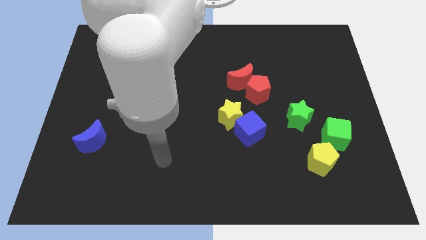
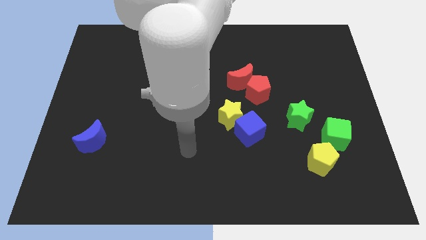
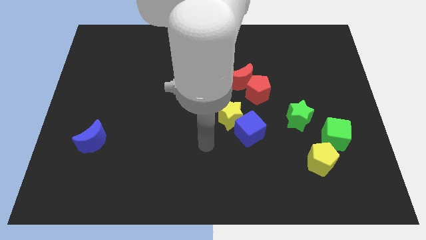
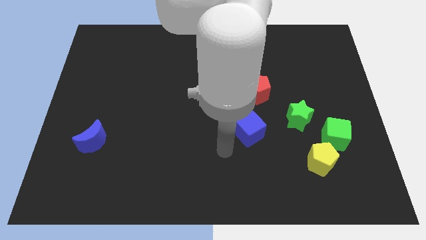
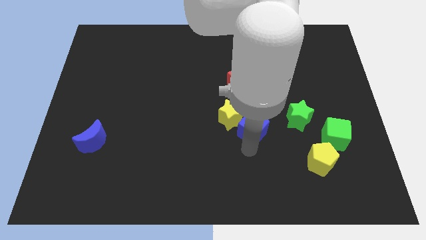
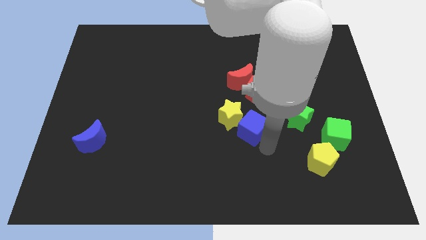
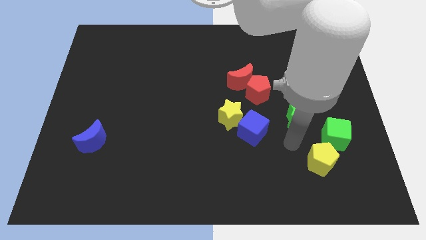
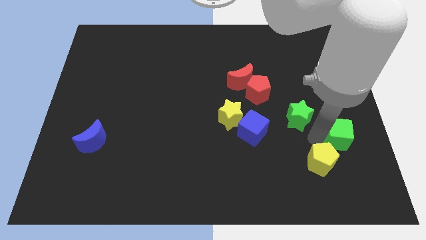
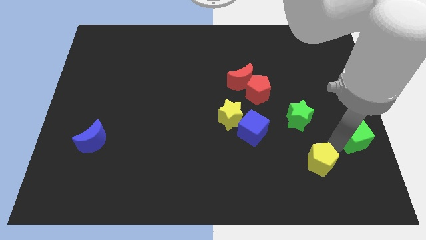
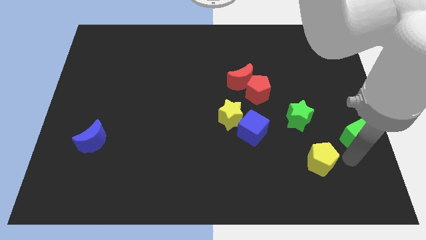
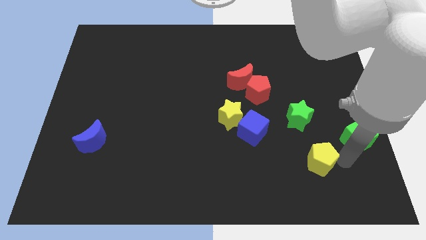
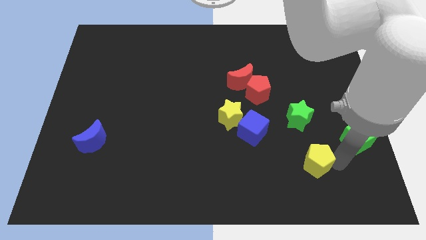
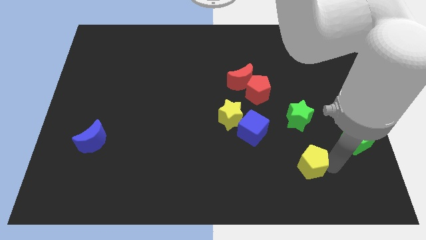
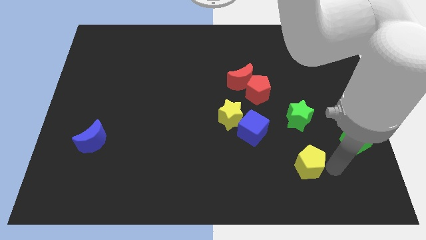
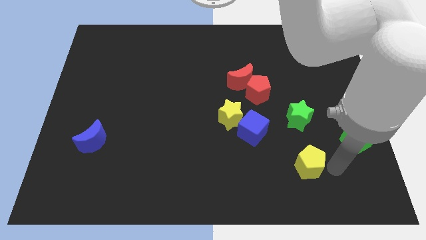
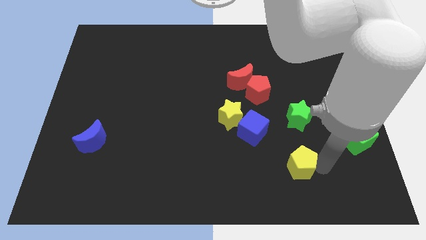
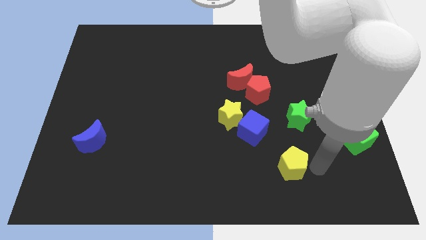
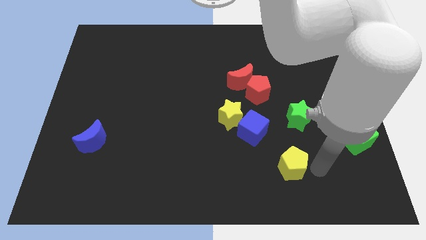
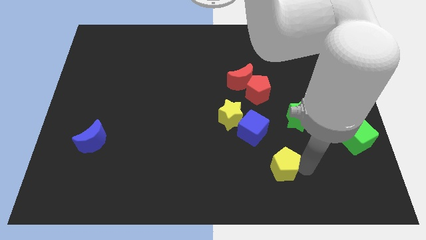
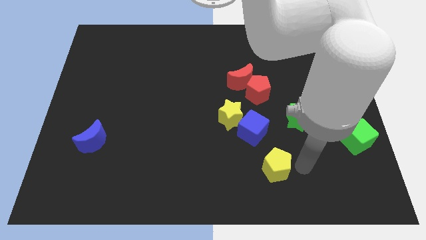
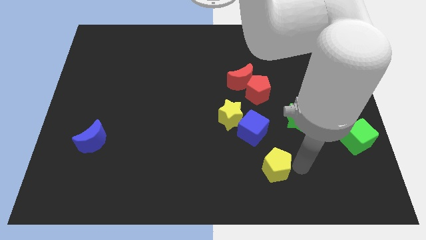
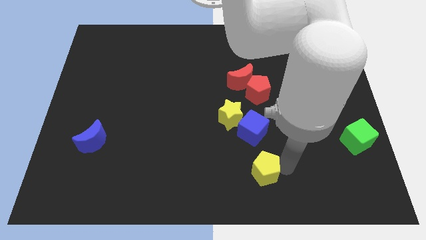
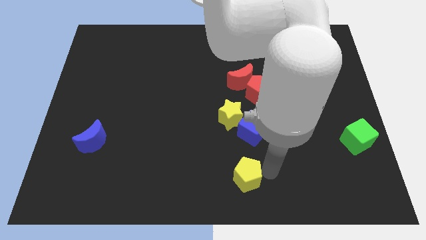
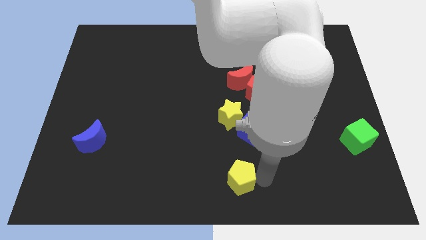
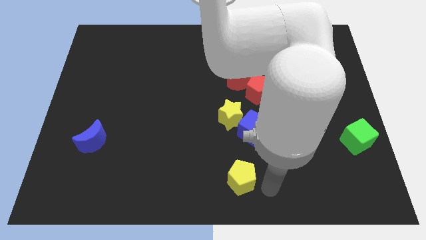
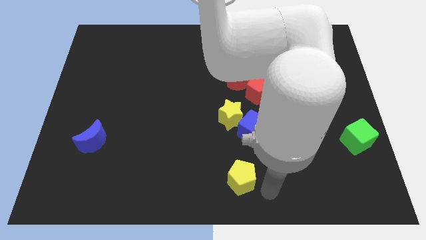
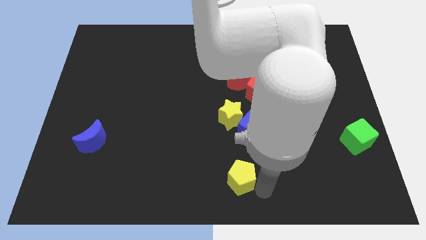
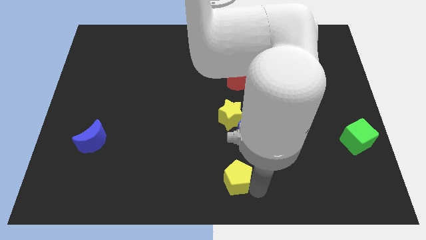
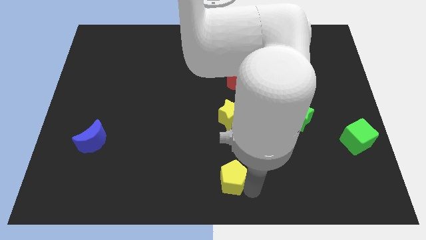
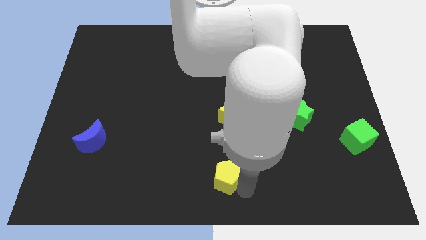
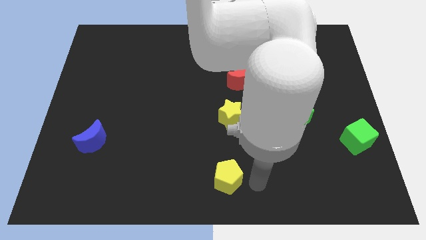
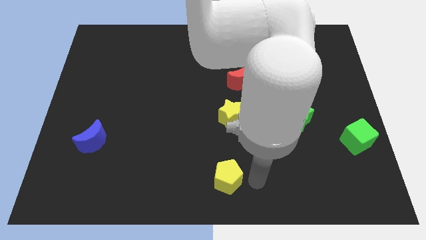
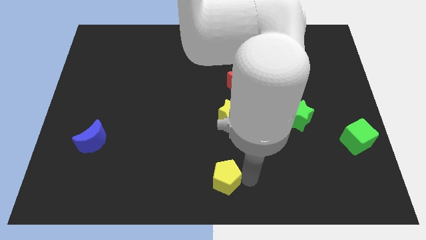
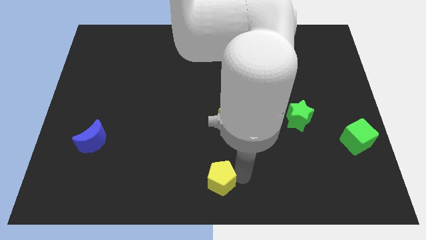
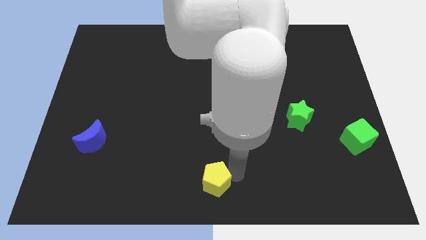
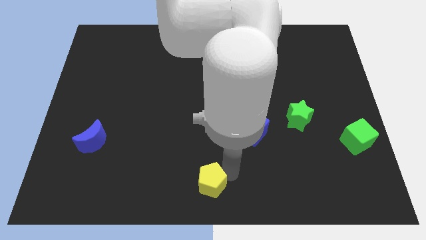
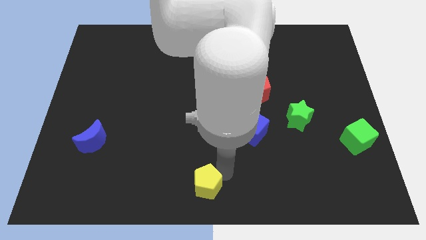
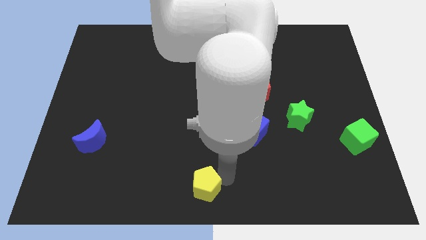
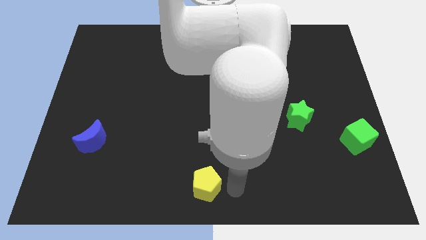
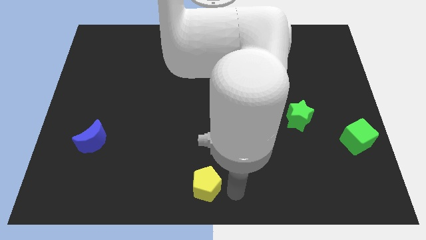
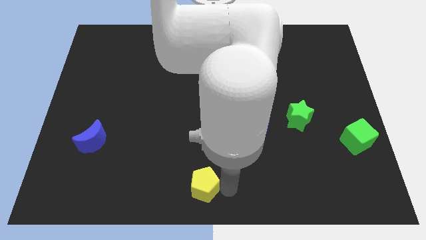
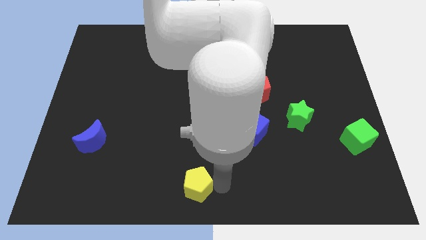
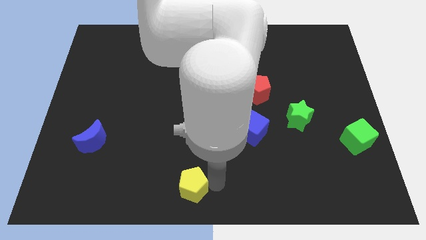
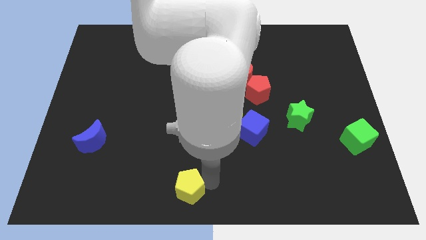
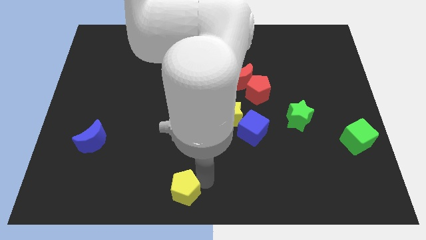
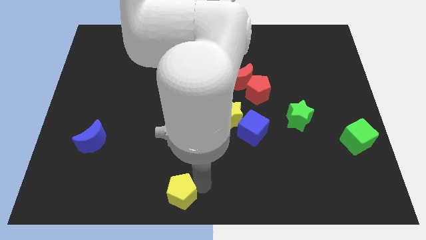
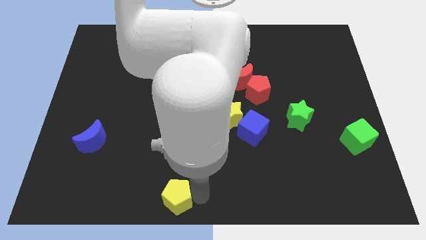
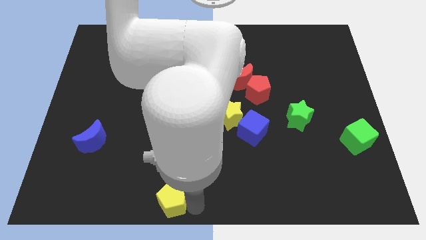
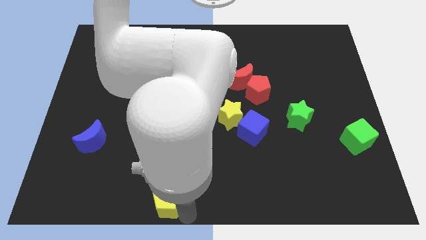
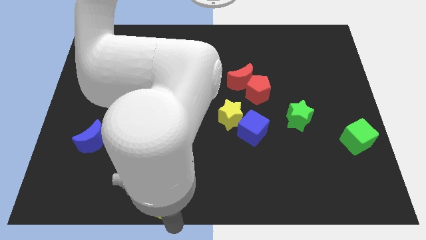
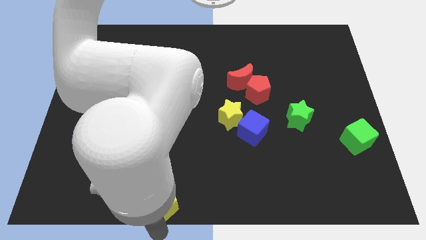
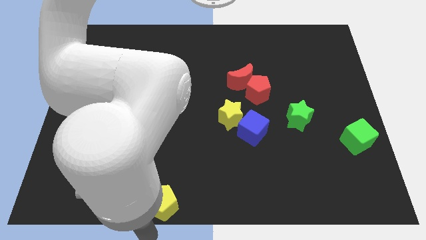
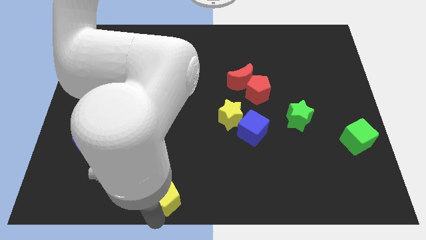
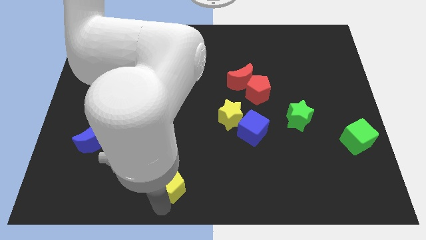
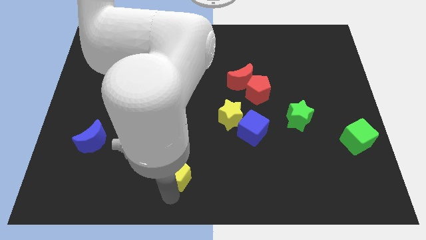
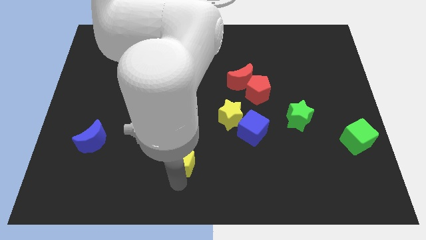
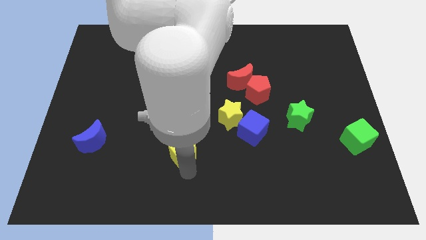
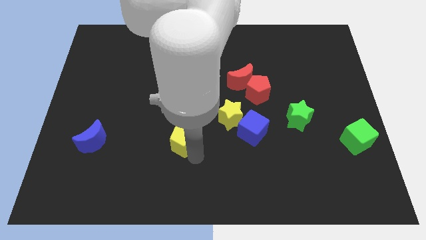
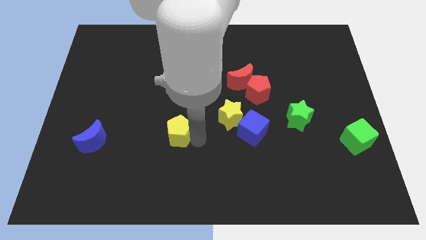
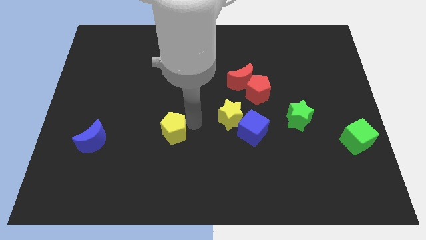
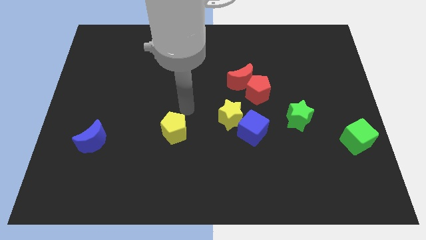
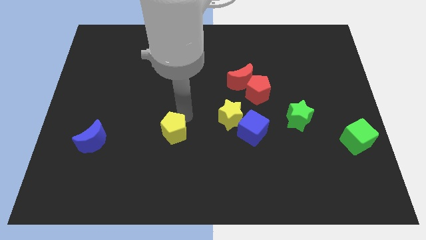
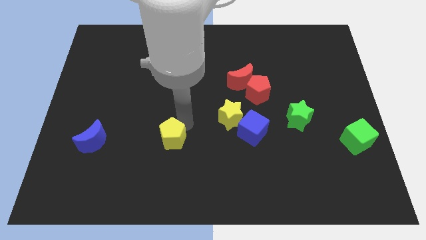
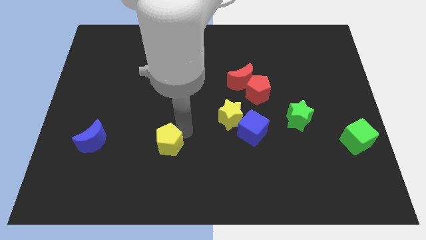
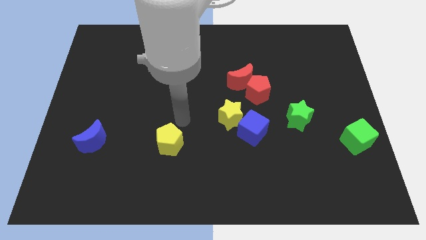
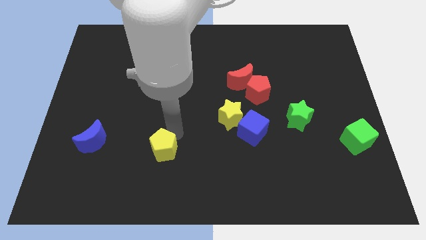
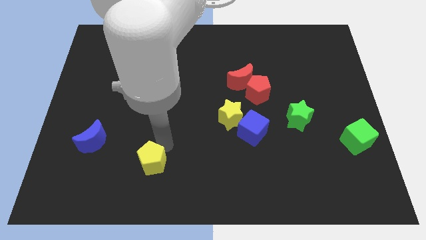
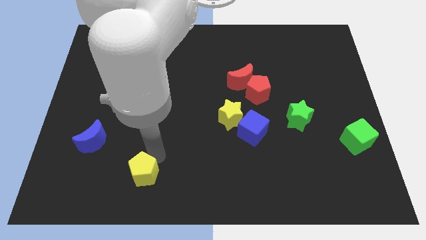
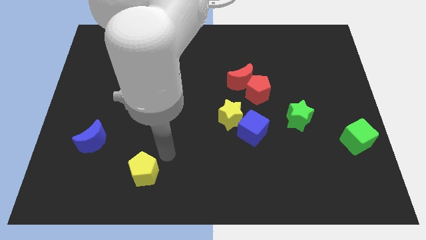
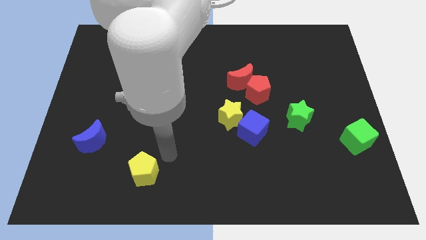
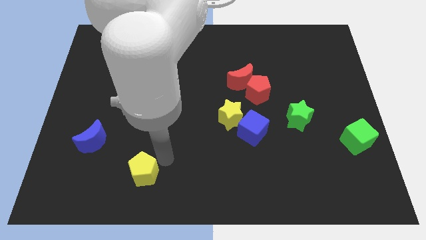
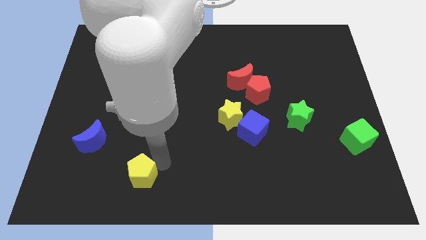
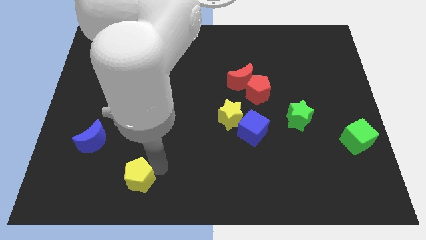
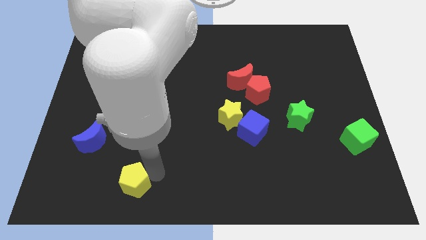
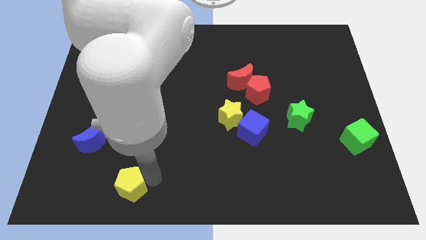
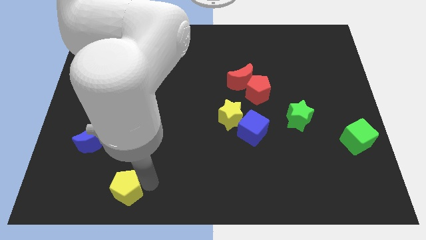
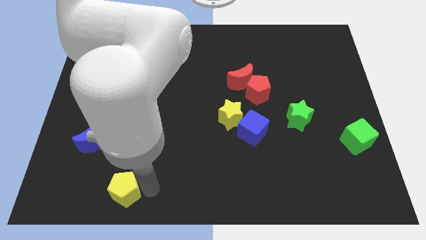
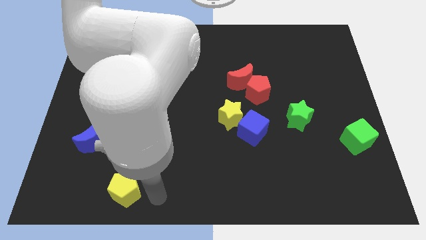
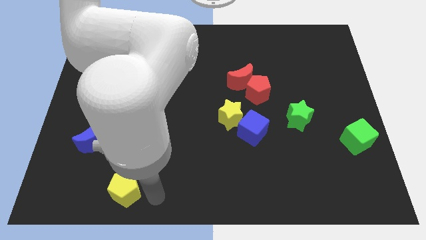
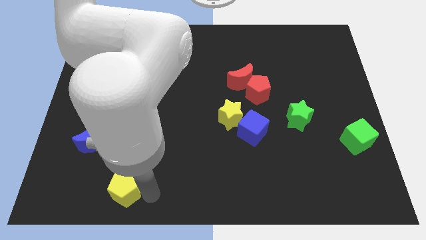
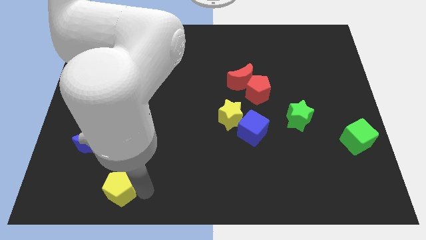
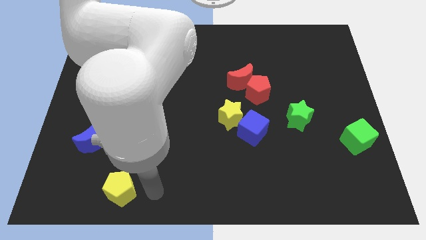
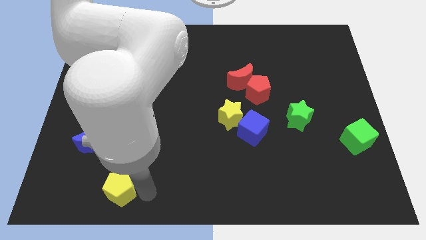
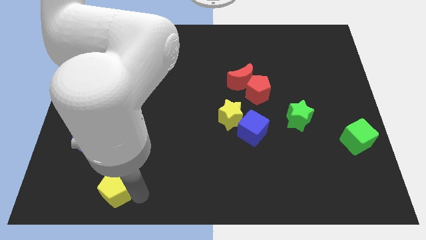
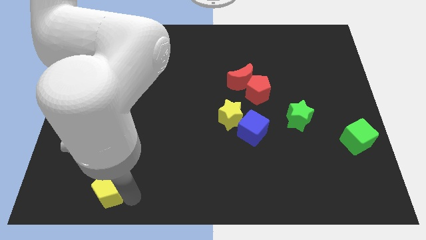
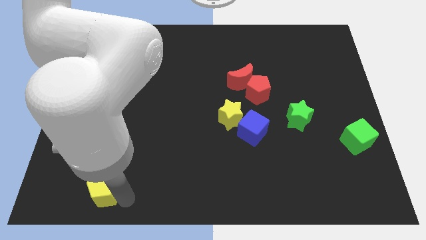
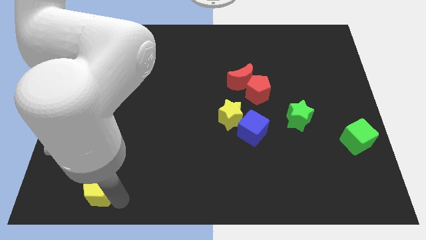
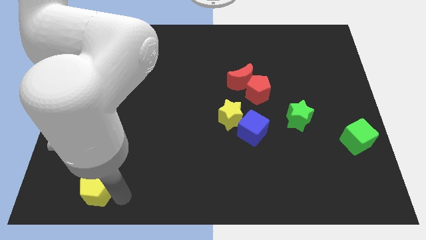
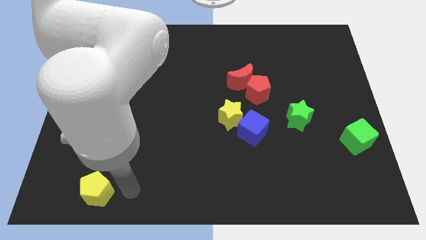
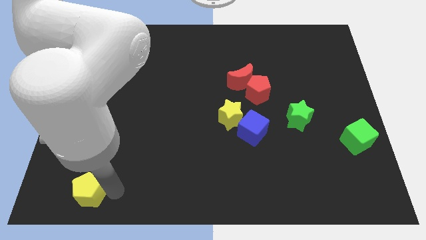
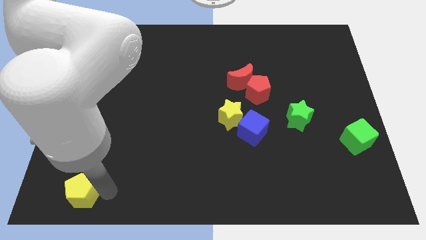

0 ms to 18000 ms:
slide the yellow pentagon to the bottom left
